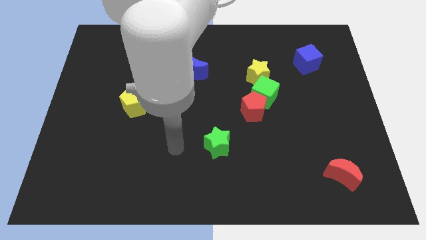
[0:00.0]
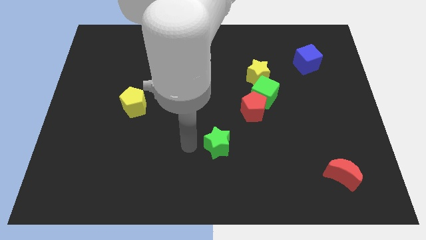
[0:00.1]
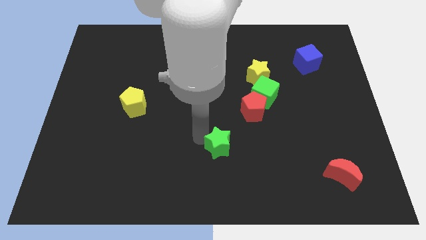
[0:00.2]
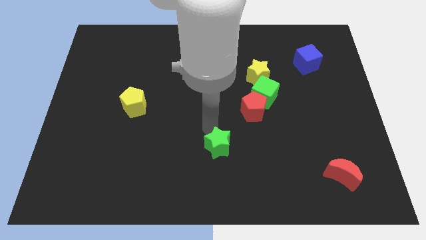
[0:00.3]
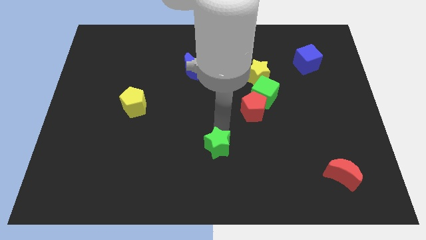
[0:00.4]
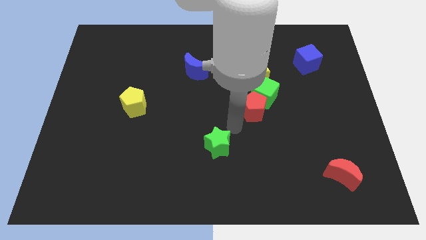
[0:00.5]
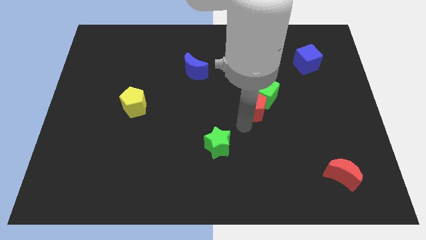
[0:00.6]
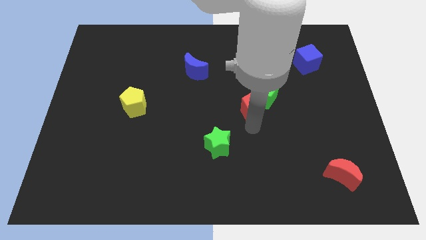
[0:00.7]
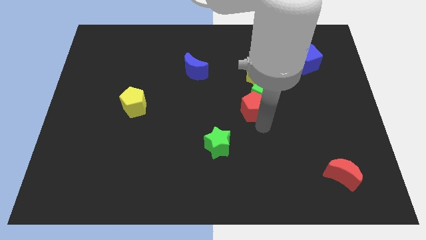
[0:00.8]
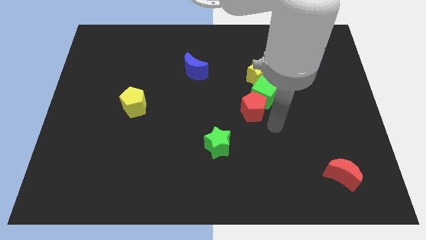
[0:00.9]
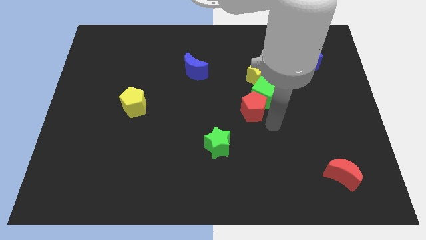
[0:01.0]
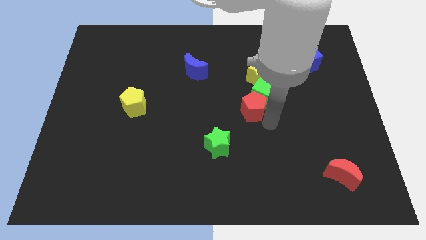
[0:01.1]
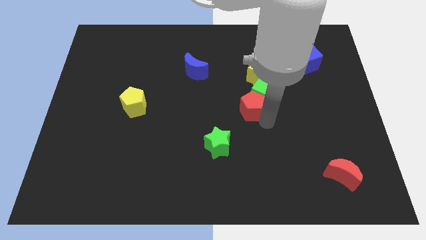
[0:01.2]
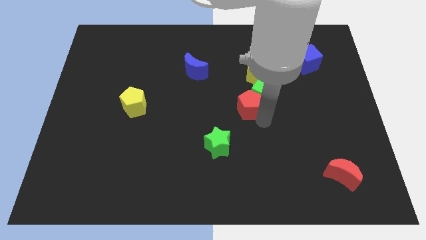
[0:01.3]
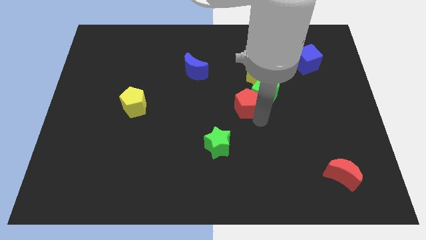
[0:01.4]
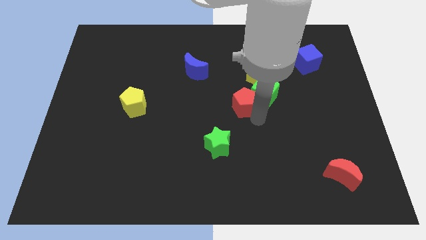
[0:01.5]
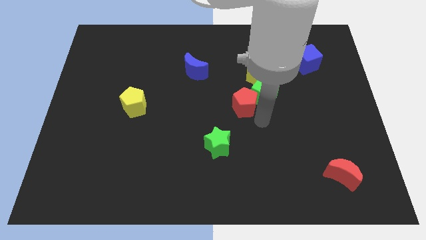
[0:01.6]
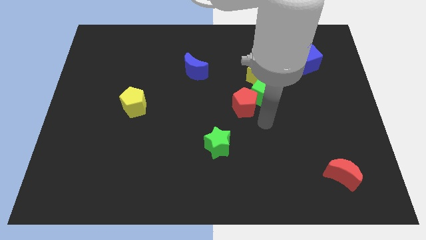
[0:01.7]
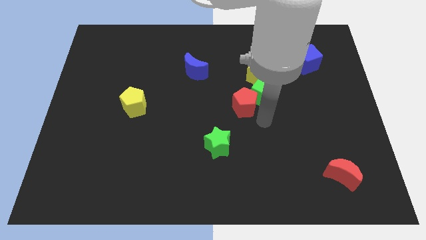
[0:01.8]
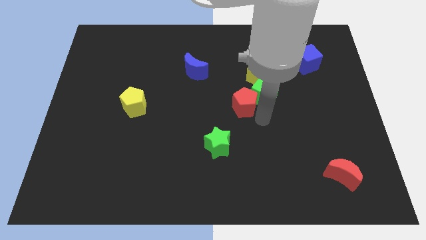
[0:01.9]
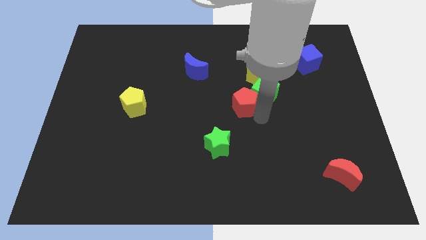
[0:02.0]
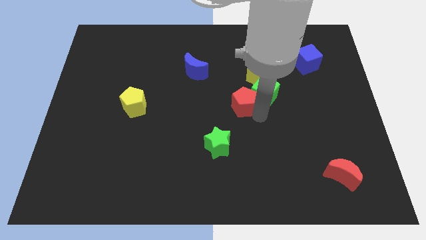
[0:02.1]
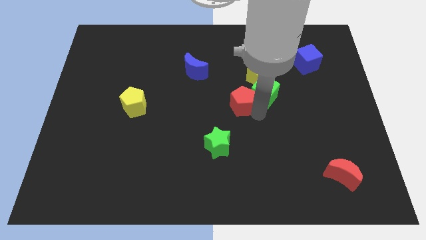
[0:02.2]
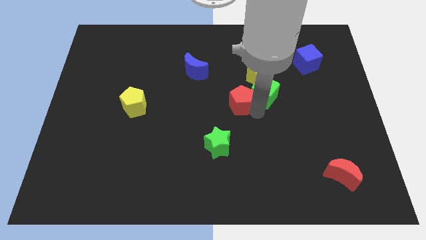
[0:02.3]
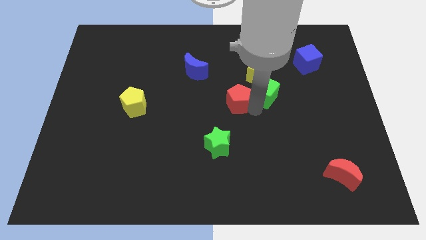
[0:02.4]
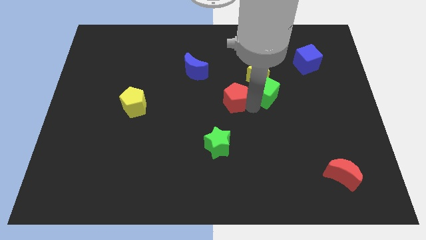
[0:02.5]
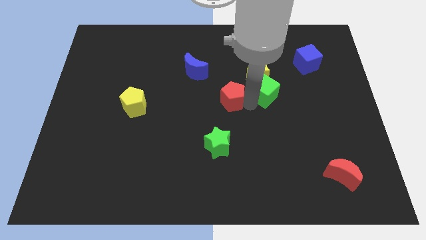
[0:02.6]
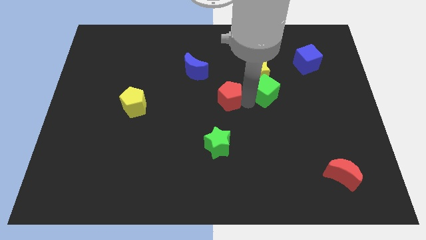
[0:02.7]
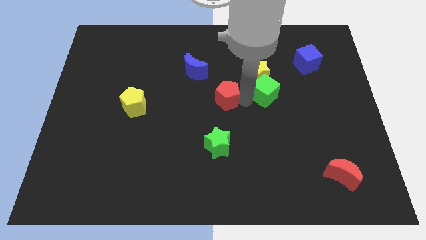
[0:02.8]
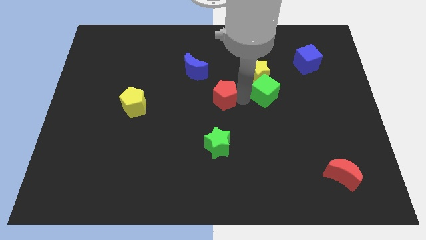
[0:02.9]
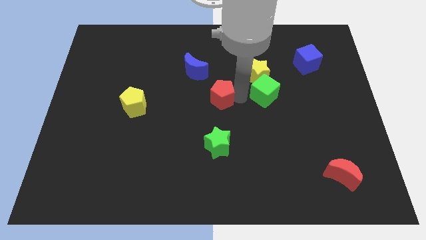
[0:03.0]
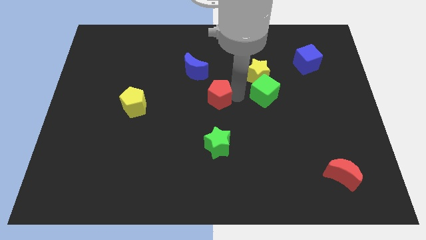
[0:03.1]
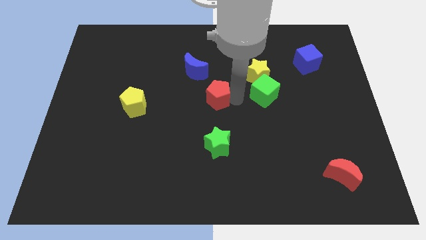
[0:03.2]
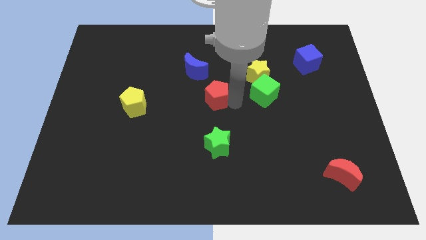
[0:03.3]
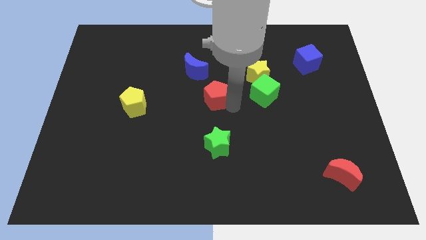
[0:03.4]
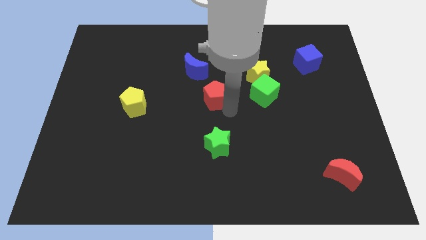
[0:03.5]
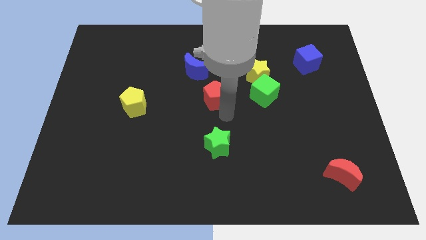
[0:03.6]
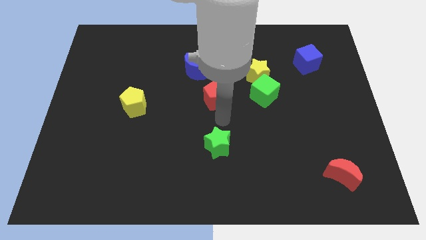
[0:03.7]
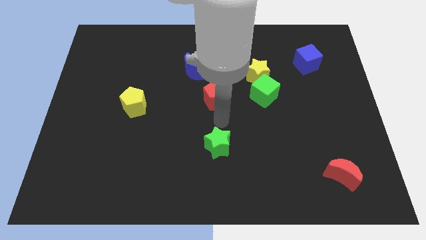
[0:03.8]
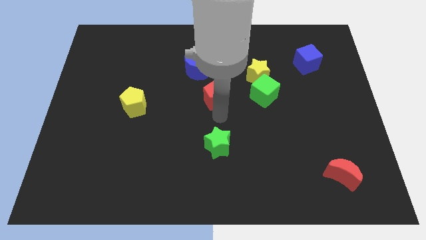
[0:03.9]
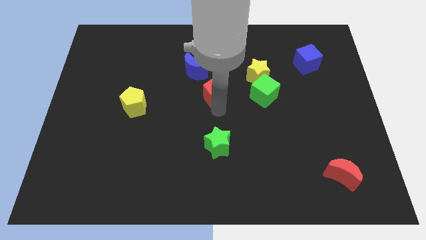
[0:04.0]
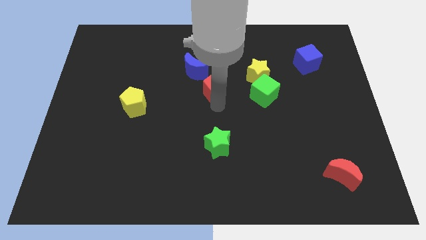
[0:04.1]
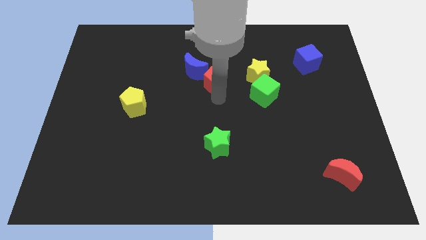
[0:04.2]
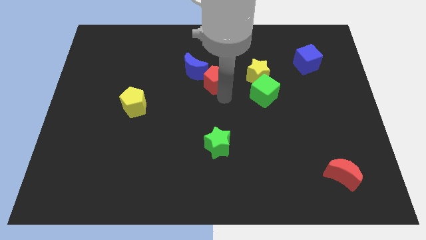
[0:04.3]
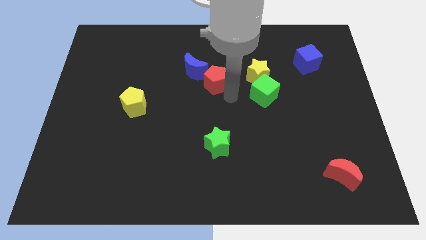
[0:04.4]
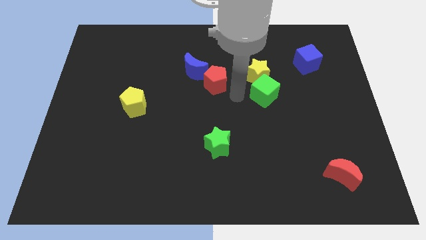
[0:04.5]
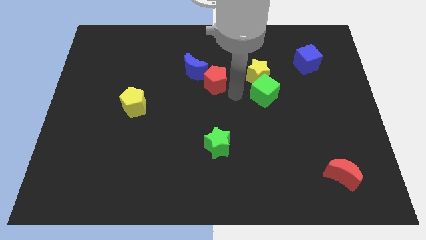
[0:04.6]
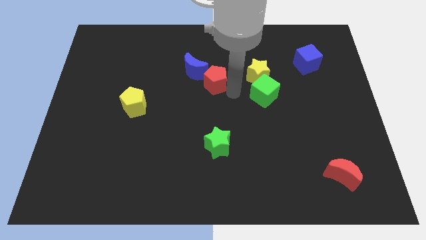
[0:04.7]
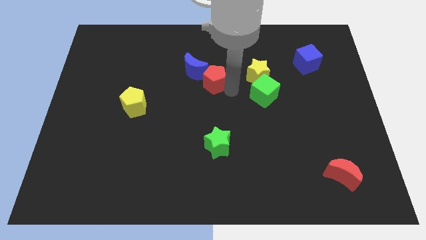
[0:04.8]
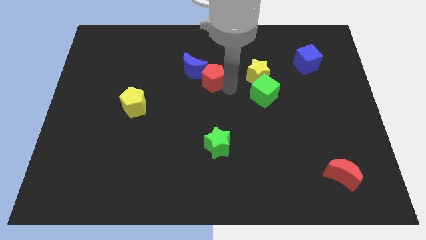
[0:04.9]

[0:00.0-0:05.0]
slide the red pentagon to the blue moon

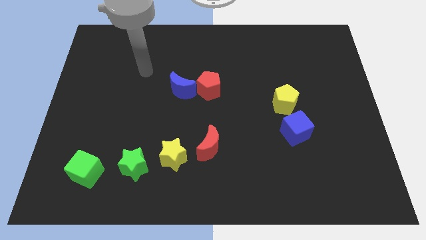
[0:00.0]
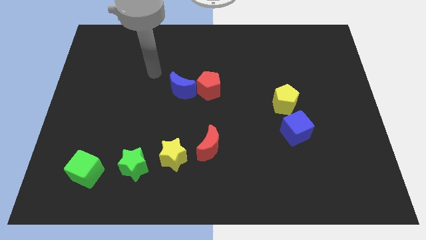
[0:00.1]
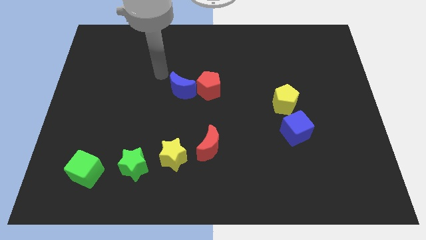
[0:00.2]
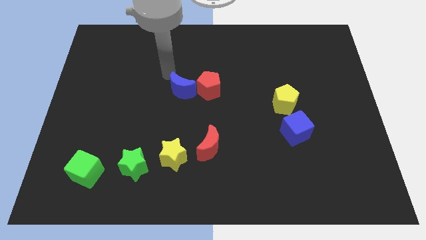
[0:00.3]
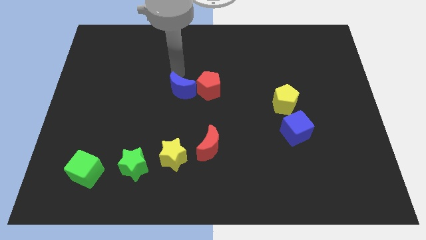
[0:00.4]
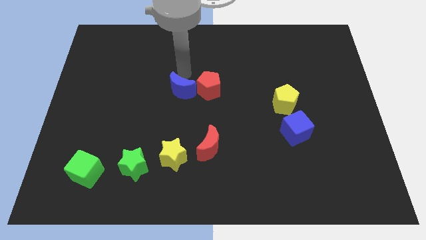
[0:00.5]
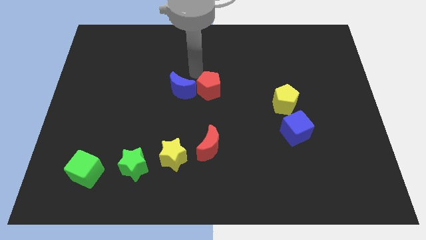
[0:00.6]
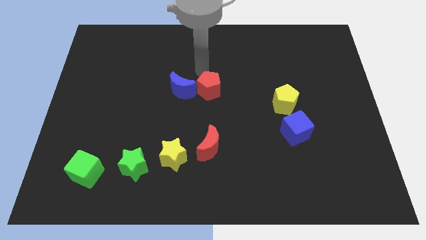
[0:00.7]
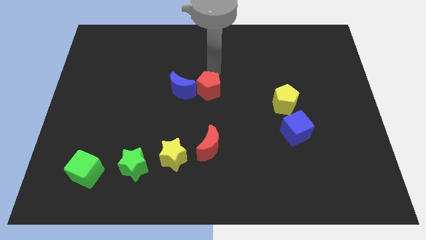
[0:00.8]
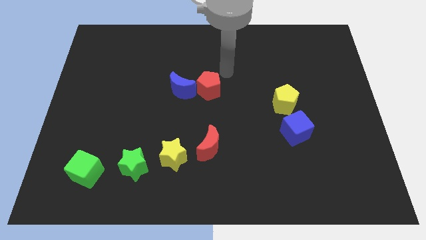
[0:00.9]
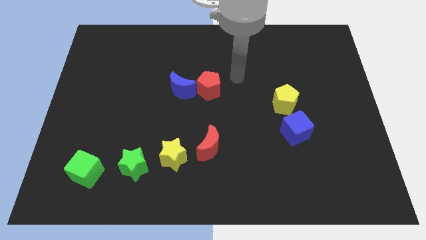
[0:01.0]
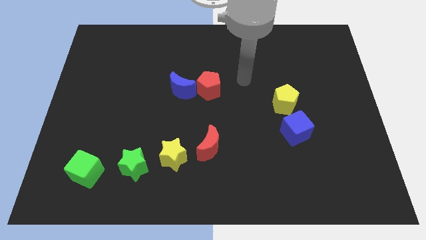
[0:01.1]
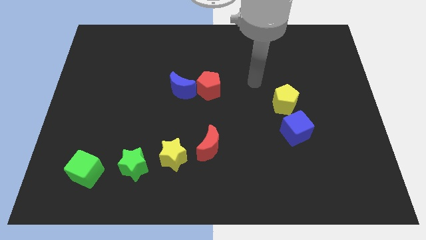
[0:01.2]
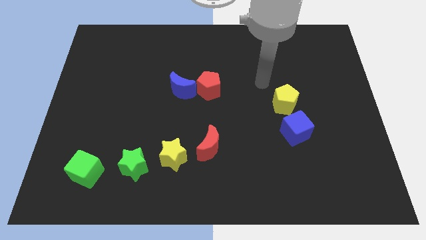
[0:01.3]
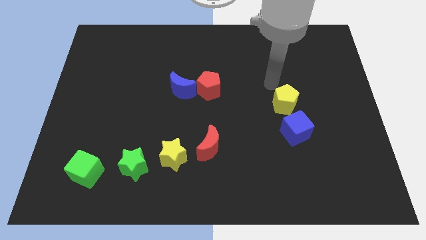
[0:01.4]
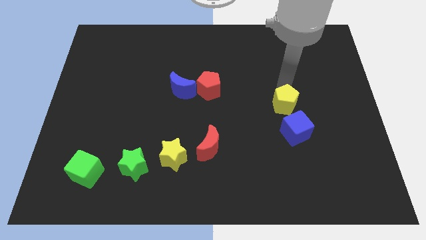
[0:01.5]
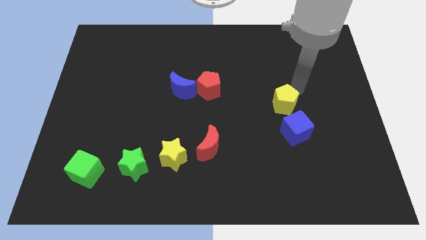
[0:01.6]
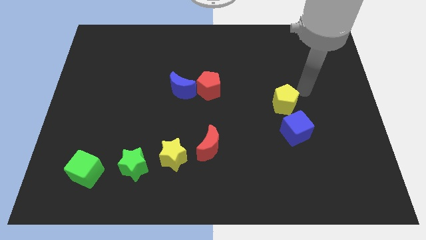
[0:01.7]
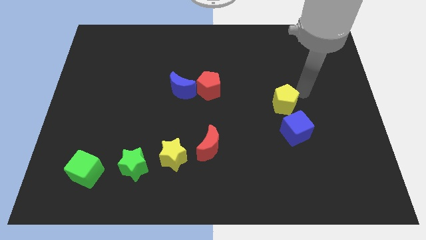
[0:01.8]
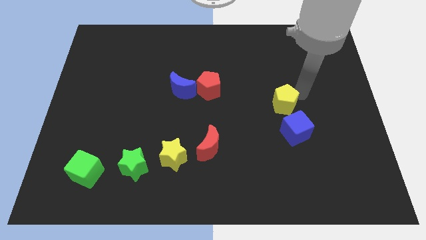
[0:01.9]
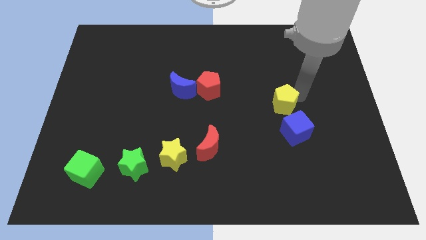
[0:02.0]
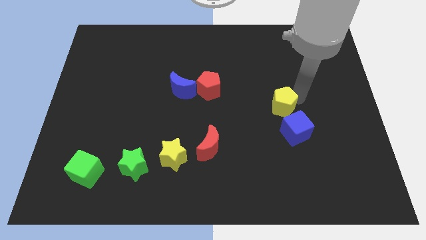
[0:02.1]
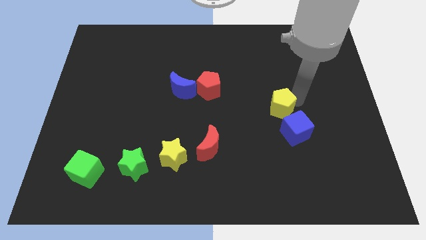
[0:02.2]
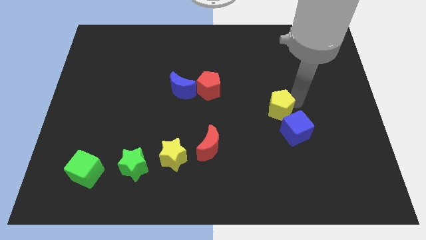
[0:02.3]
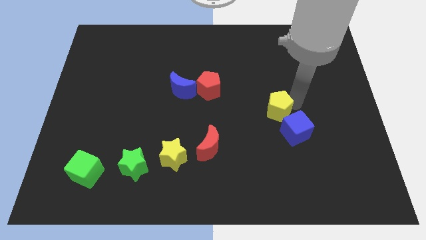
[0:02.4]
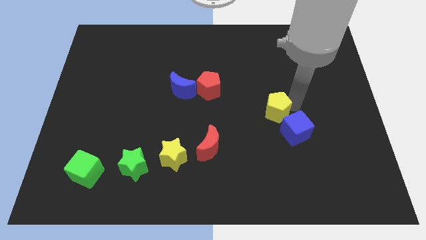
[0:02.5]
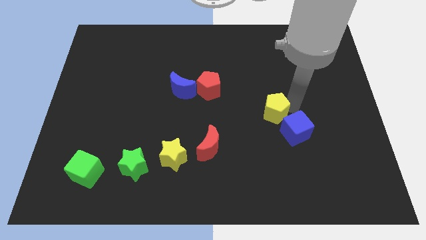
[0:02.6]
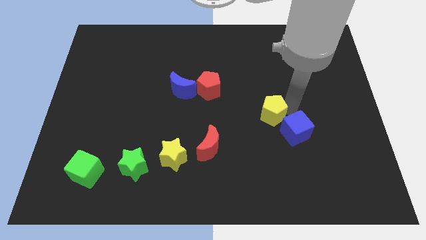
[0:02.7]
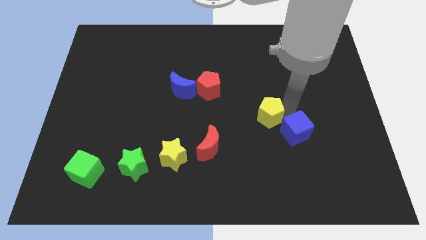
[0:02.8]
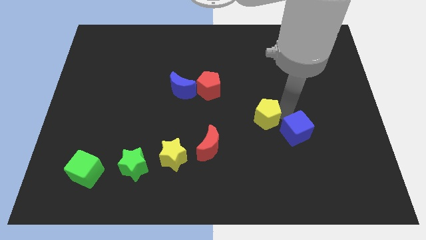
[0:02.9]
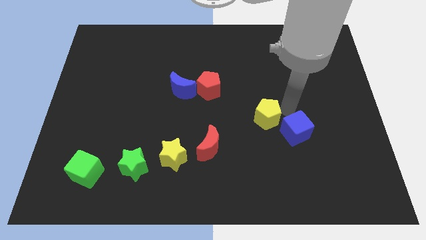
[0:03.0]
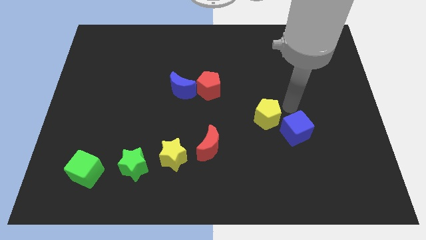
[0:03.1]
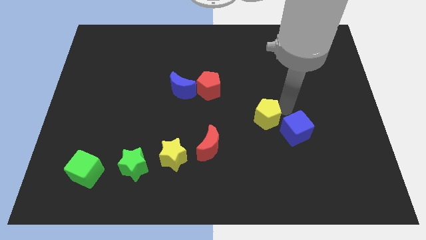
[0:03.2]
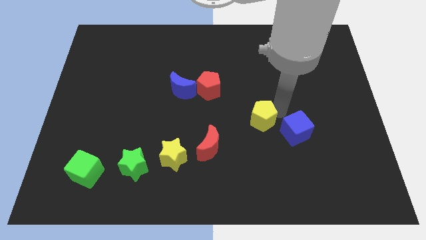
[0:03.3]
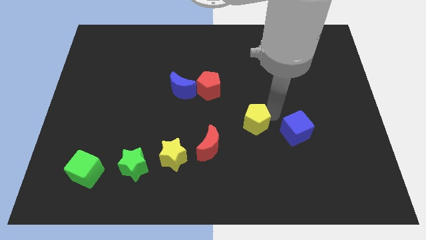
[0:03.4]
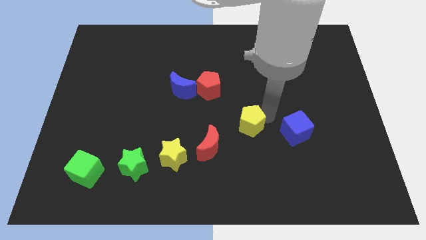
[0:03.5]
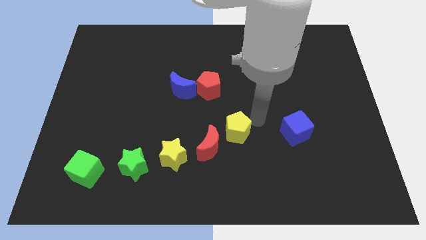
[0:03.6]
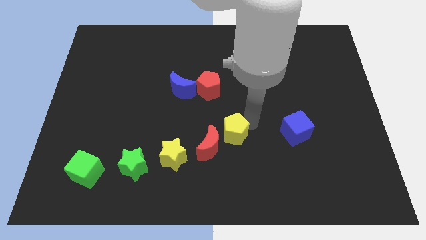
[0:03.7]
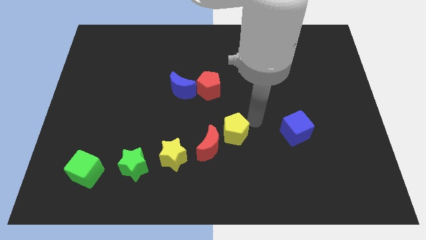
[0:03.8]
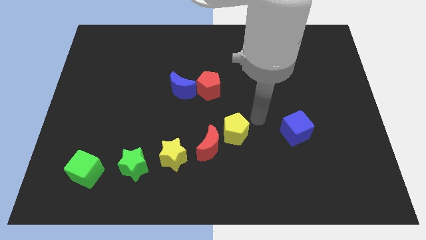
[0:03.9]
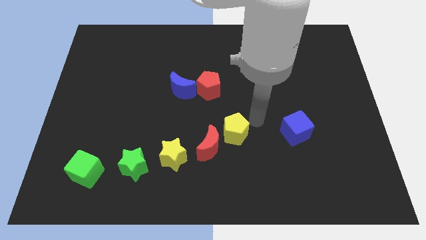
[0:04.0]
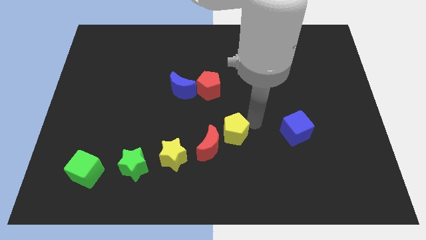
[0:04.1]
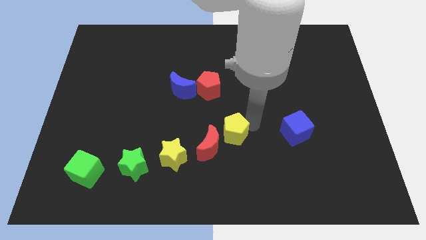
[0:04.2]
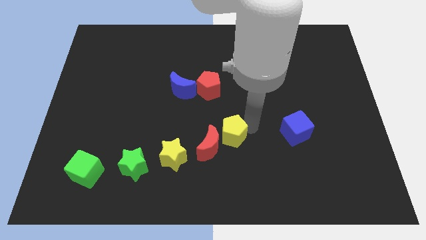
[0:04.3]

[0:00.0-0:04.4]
put the yellow pentagon close to the red moon
